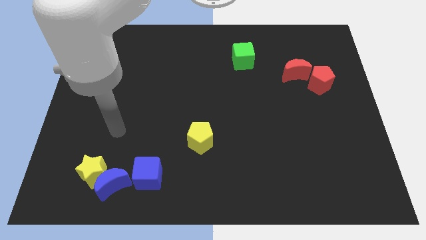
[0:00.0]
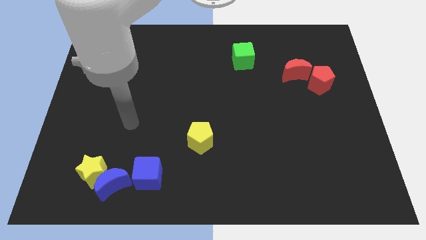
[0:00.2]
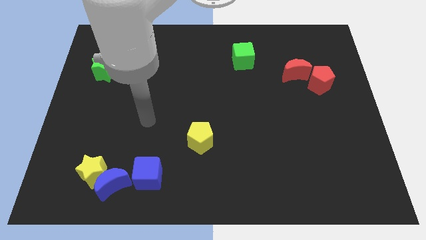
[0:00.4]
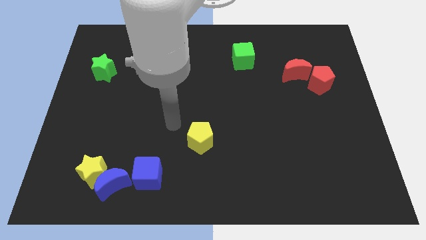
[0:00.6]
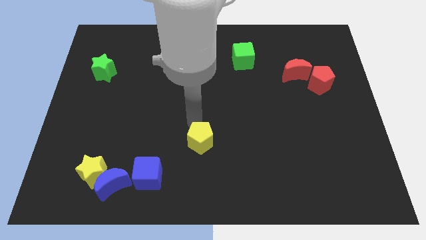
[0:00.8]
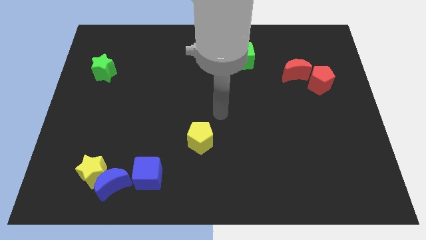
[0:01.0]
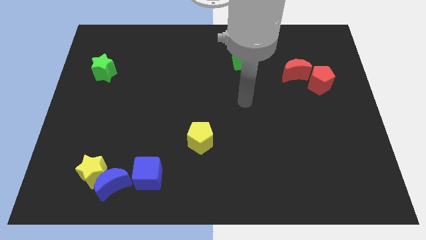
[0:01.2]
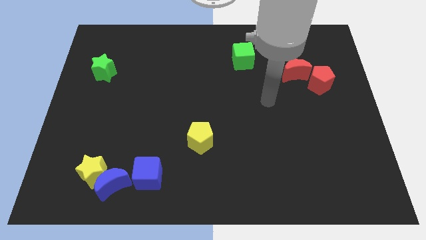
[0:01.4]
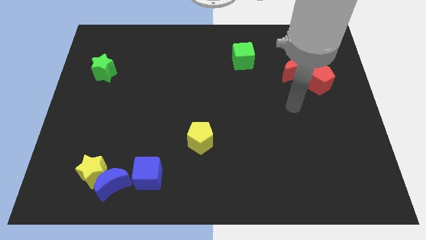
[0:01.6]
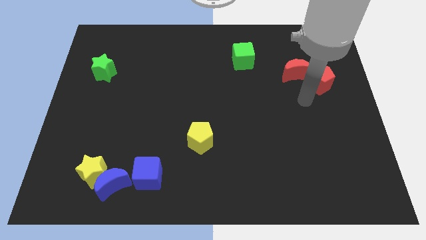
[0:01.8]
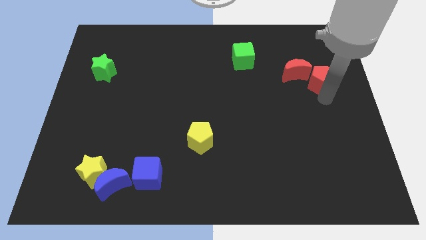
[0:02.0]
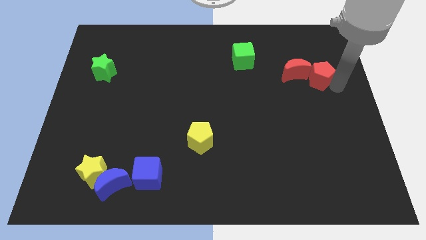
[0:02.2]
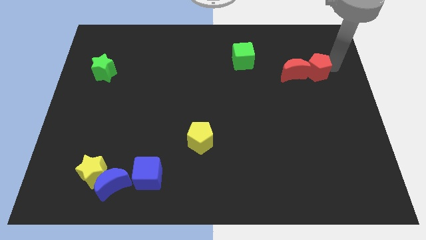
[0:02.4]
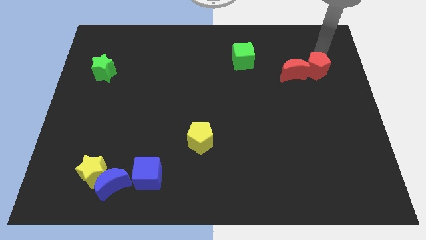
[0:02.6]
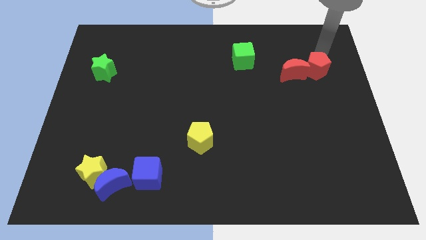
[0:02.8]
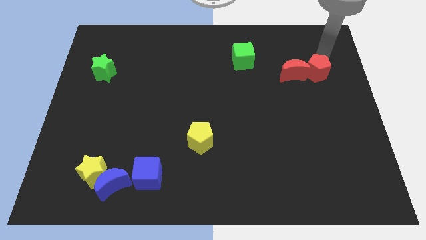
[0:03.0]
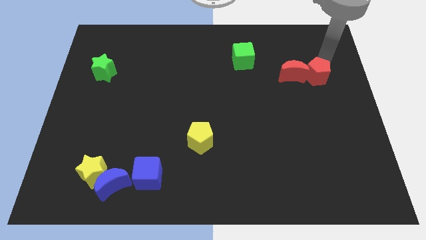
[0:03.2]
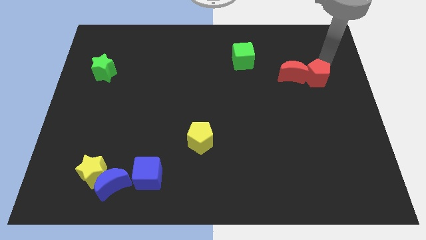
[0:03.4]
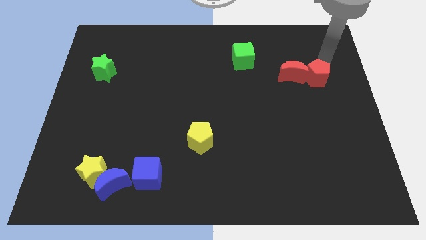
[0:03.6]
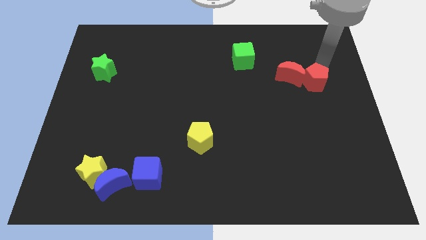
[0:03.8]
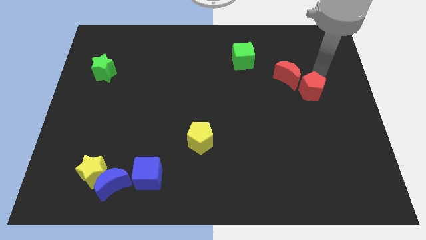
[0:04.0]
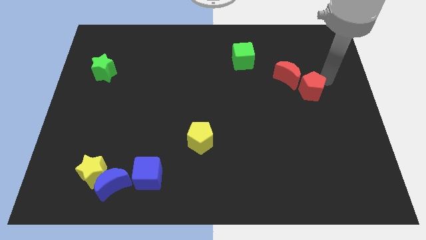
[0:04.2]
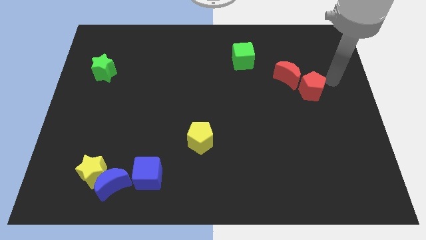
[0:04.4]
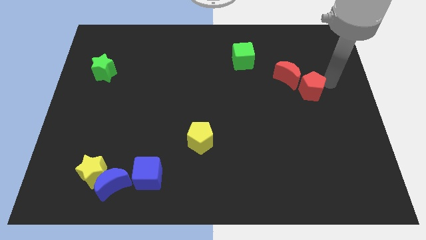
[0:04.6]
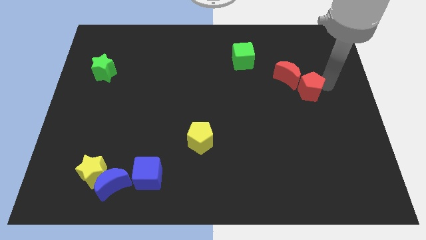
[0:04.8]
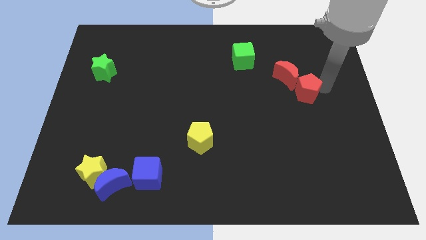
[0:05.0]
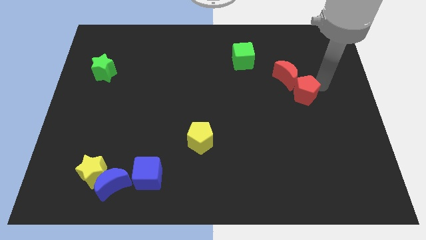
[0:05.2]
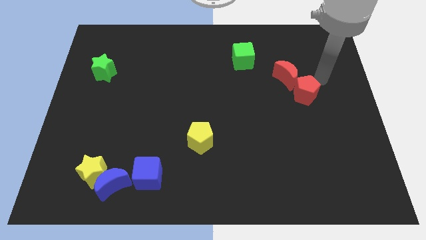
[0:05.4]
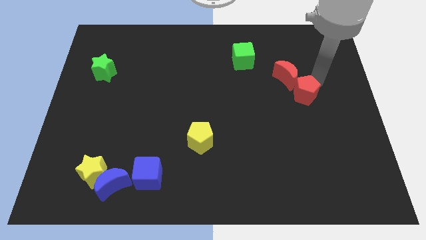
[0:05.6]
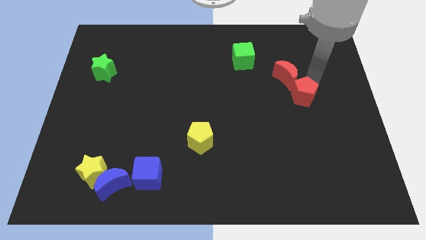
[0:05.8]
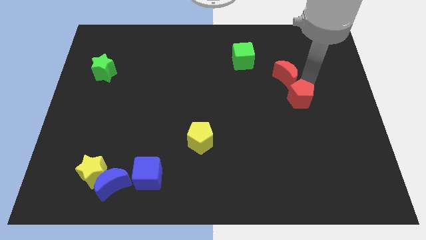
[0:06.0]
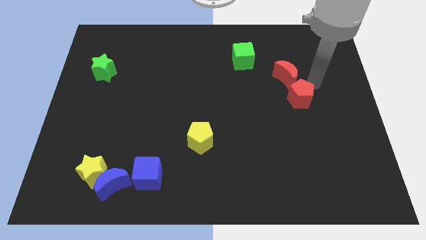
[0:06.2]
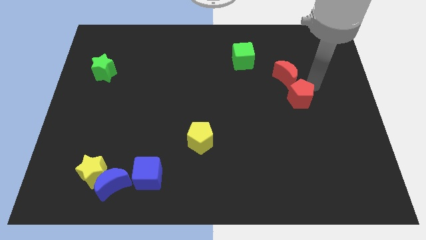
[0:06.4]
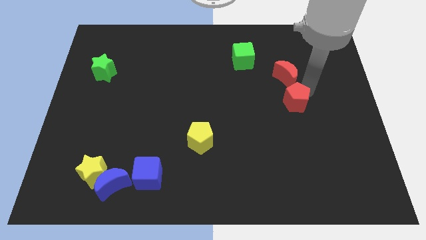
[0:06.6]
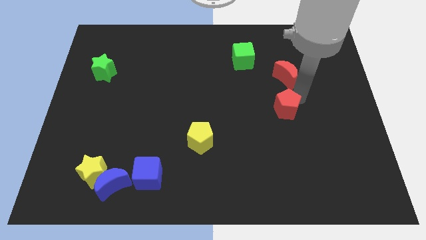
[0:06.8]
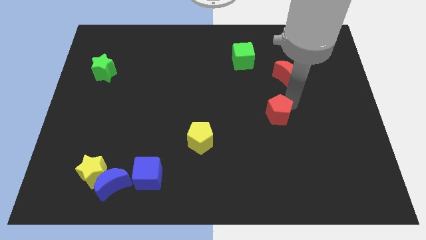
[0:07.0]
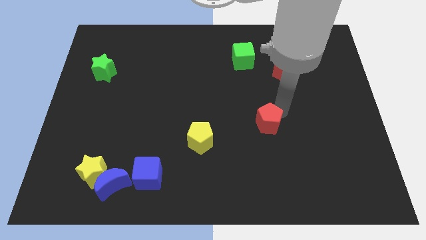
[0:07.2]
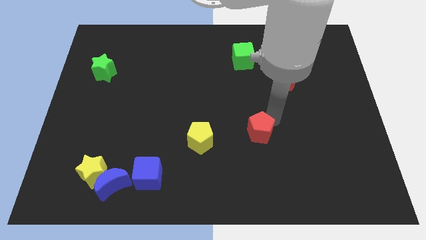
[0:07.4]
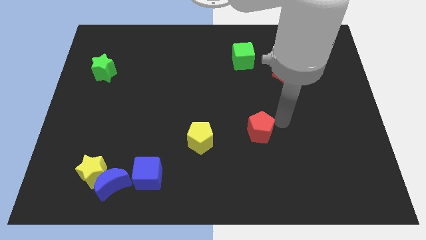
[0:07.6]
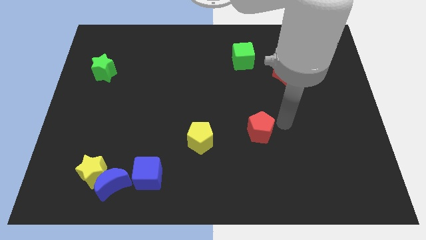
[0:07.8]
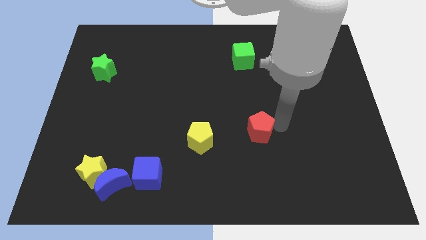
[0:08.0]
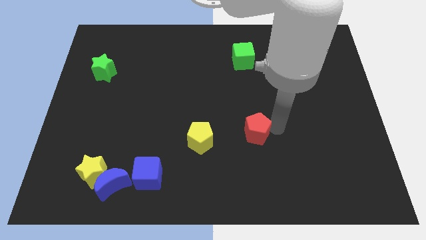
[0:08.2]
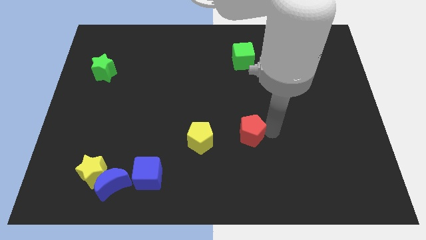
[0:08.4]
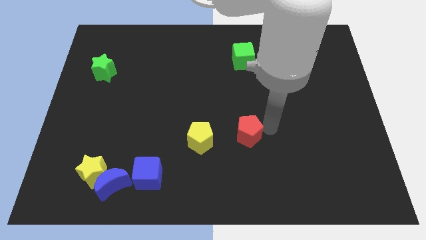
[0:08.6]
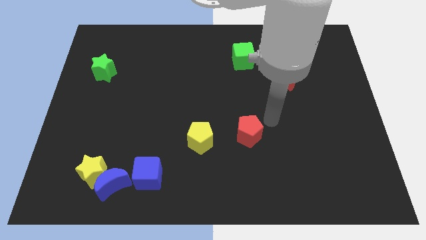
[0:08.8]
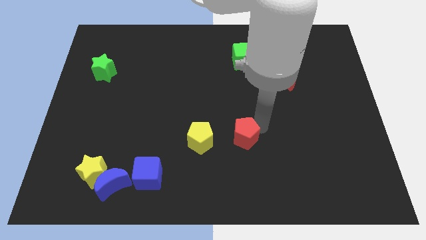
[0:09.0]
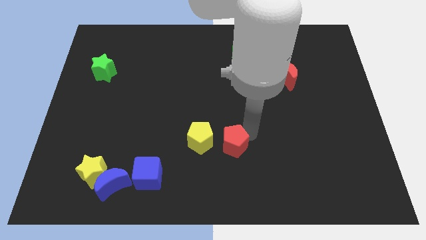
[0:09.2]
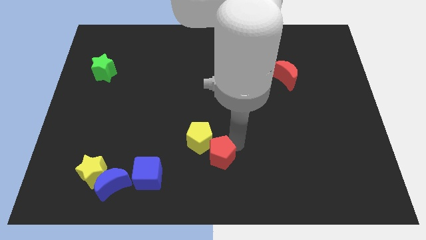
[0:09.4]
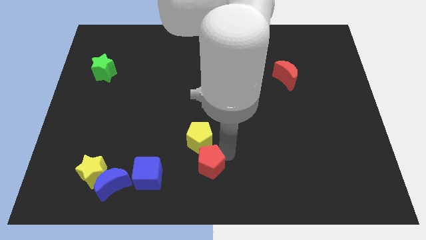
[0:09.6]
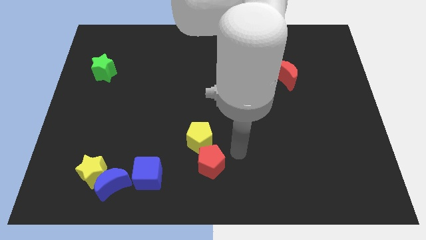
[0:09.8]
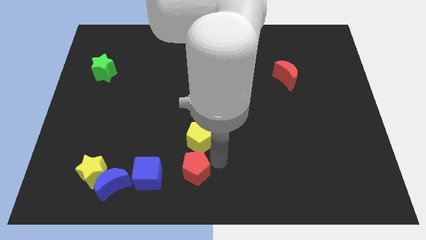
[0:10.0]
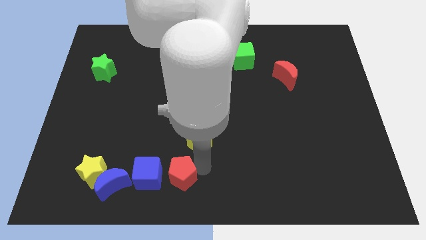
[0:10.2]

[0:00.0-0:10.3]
slide the red pentagon just right of the blue moon

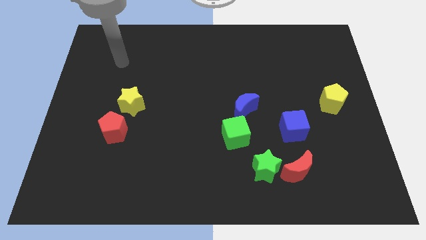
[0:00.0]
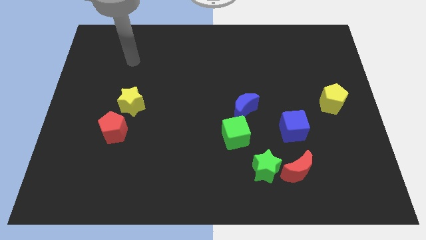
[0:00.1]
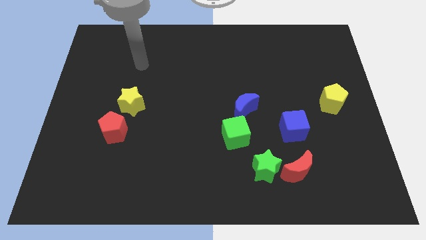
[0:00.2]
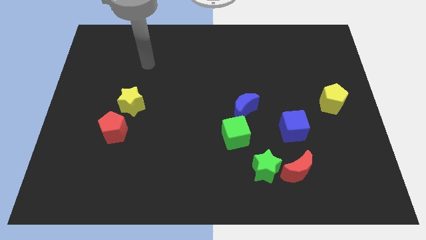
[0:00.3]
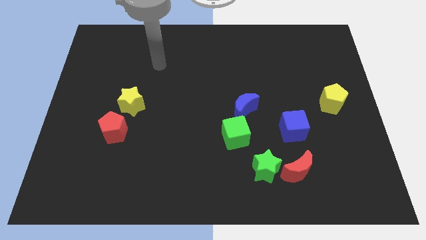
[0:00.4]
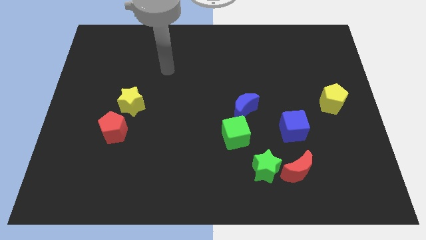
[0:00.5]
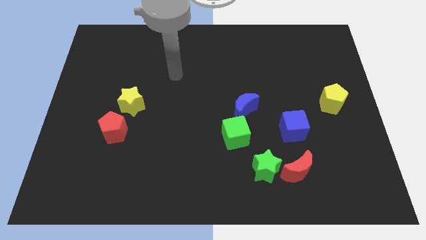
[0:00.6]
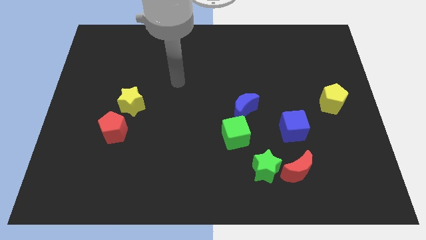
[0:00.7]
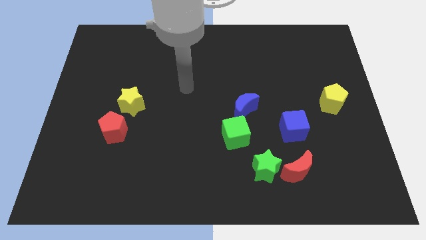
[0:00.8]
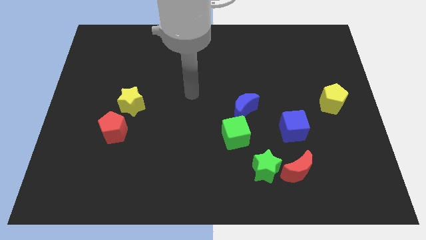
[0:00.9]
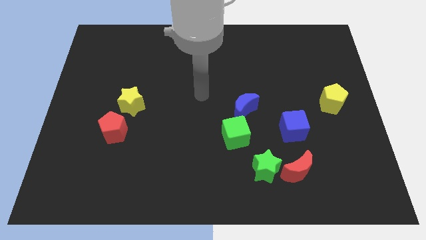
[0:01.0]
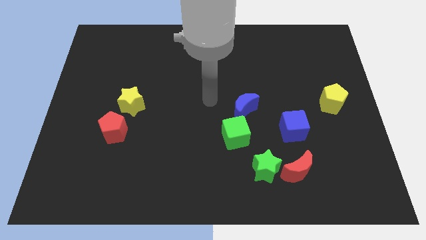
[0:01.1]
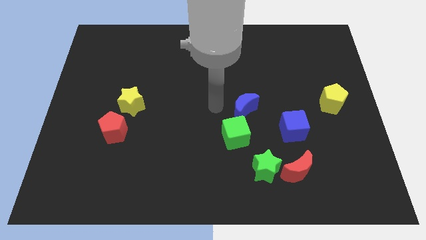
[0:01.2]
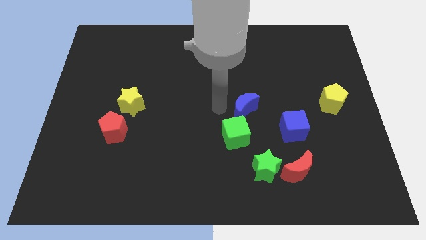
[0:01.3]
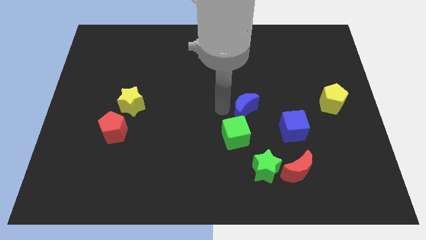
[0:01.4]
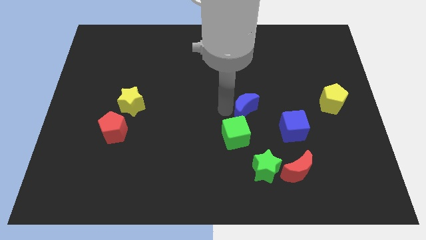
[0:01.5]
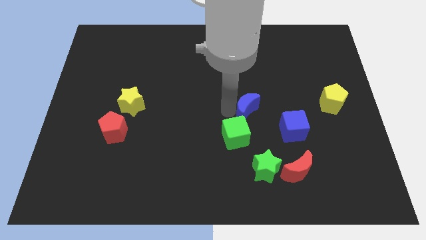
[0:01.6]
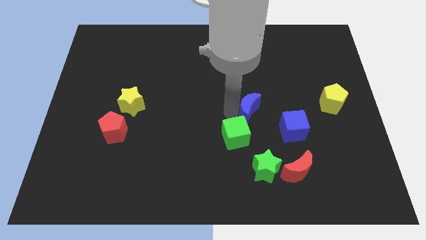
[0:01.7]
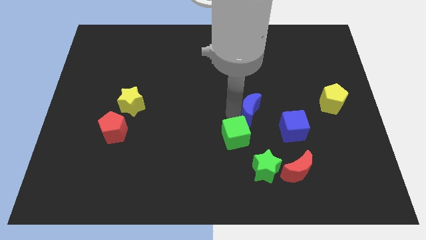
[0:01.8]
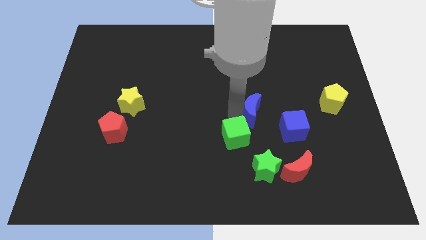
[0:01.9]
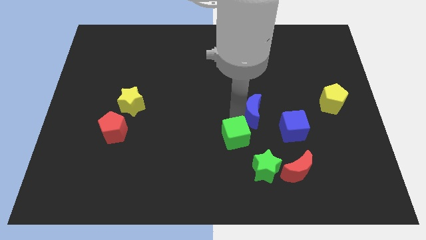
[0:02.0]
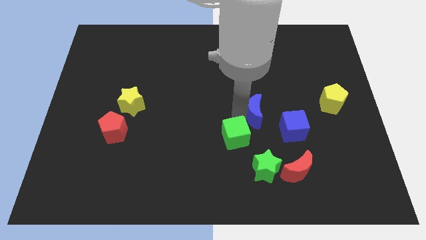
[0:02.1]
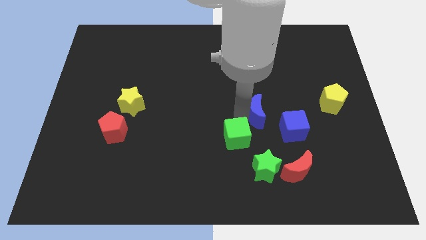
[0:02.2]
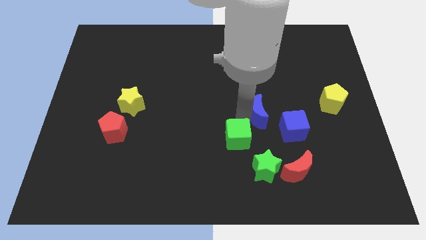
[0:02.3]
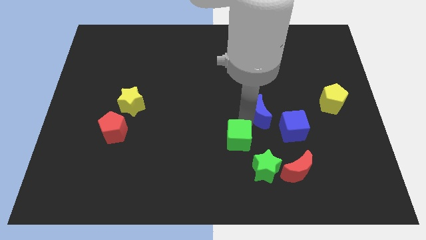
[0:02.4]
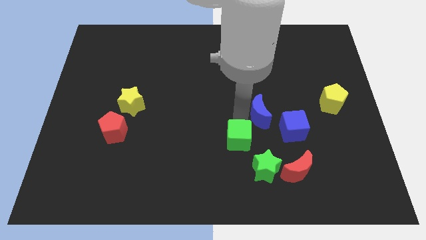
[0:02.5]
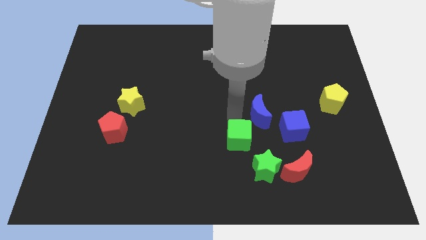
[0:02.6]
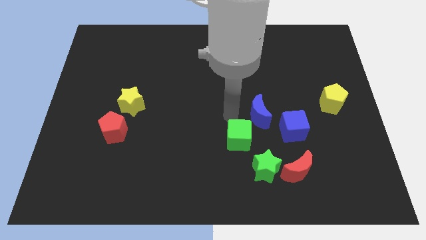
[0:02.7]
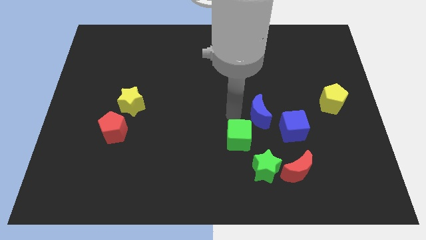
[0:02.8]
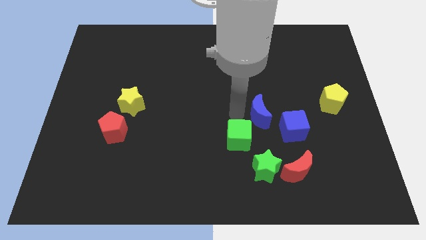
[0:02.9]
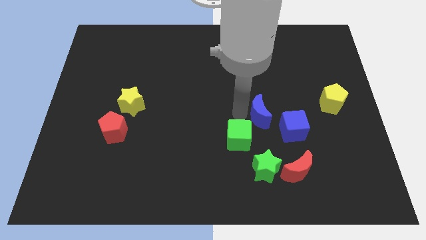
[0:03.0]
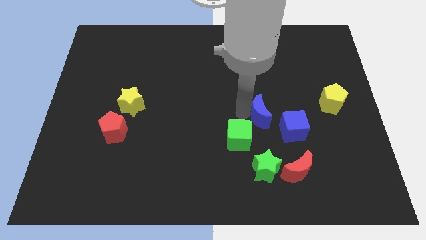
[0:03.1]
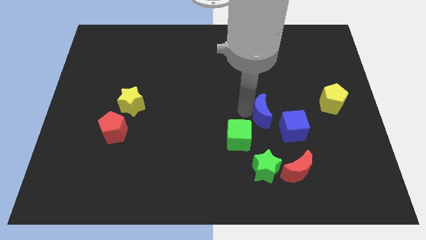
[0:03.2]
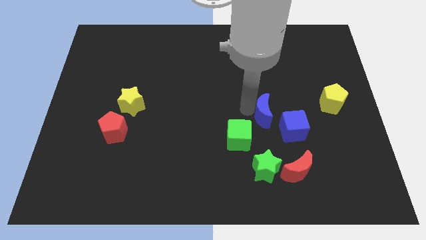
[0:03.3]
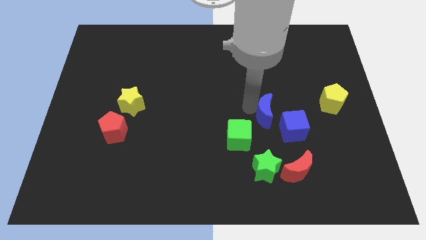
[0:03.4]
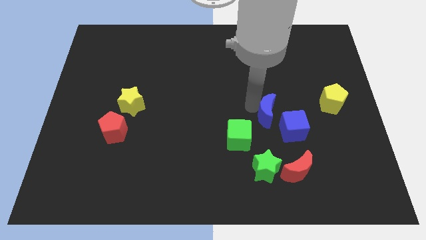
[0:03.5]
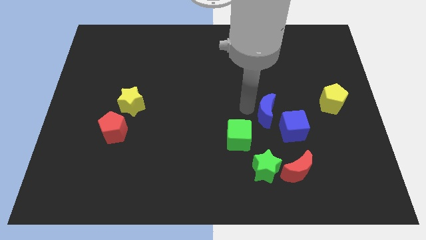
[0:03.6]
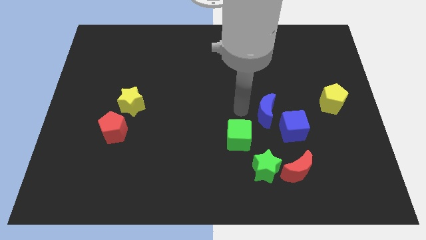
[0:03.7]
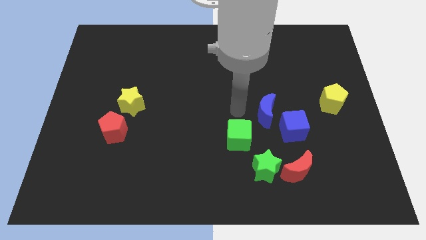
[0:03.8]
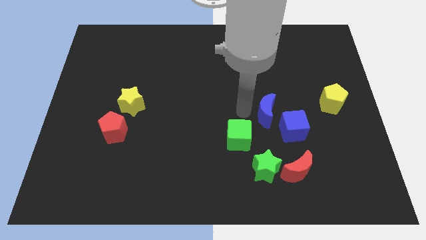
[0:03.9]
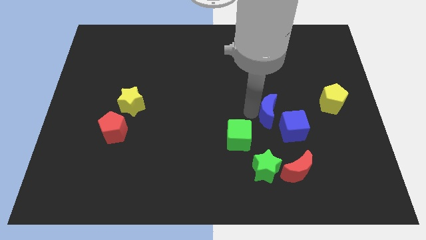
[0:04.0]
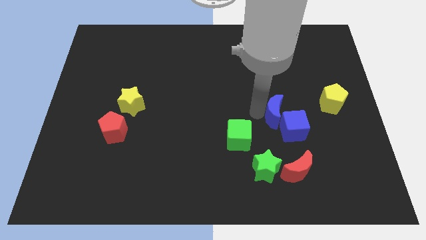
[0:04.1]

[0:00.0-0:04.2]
move the blue moon to the top of the red moon
